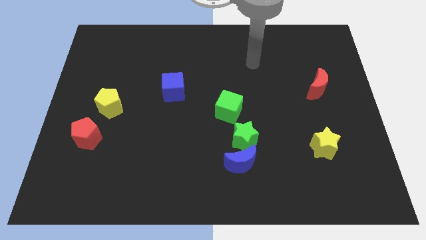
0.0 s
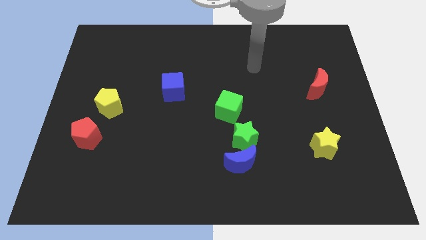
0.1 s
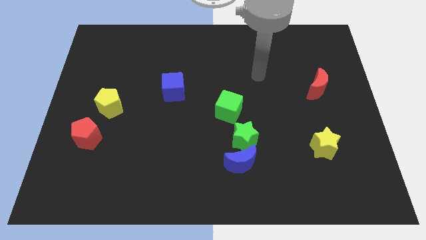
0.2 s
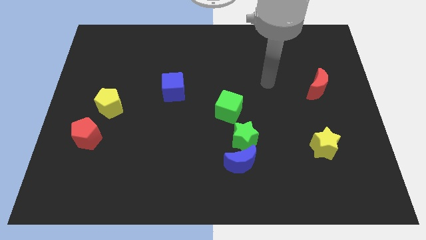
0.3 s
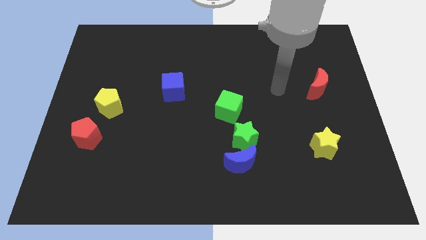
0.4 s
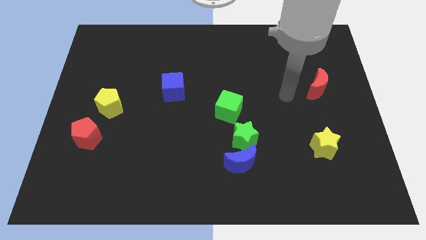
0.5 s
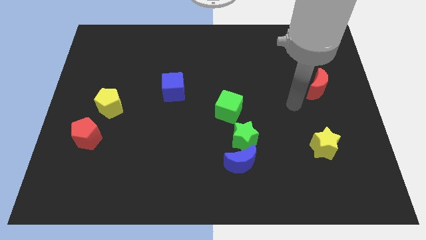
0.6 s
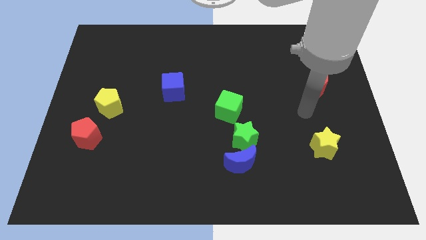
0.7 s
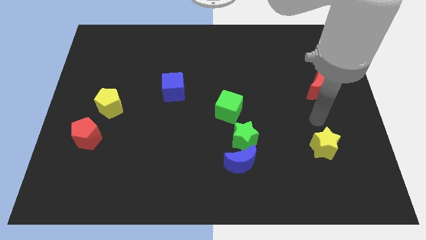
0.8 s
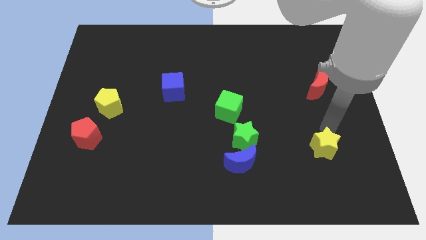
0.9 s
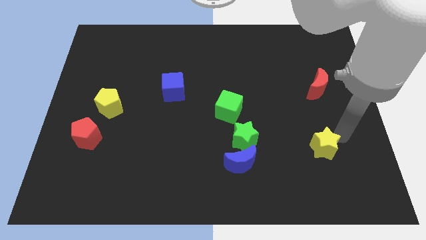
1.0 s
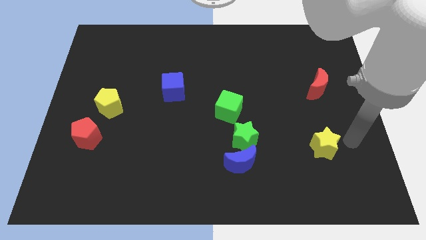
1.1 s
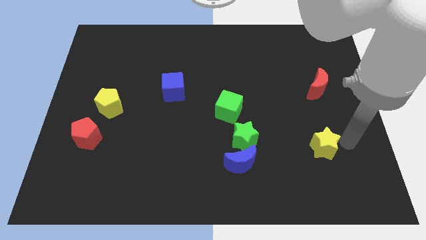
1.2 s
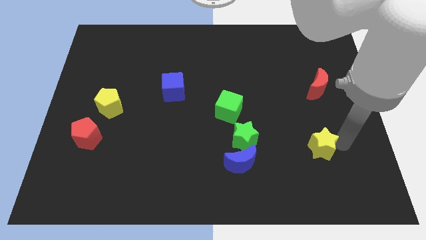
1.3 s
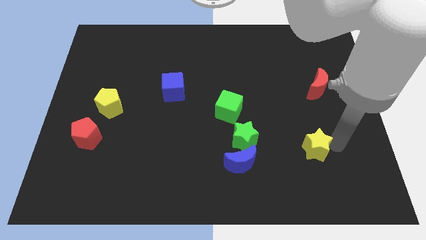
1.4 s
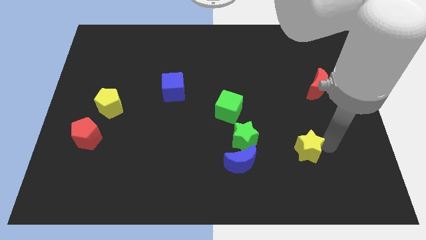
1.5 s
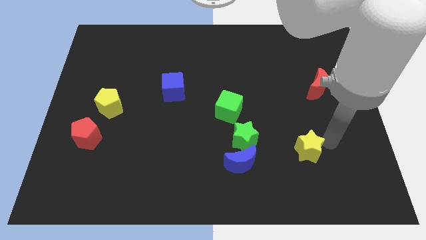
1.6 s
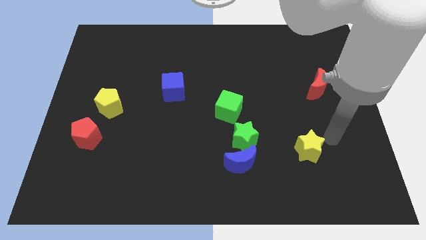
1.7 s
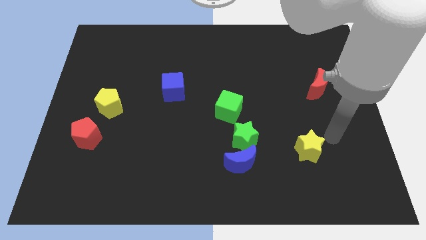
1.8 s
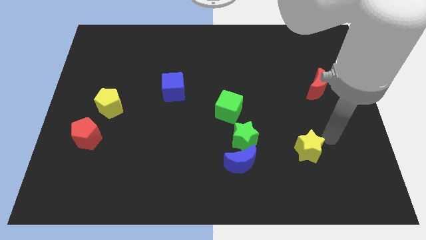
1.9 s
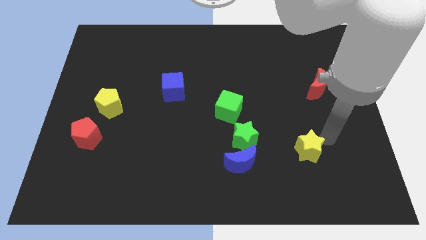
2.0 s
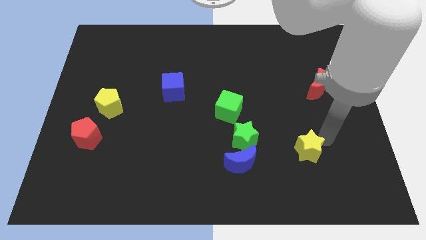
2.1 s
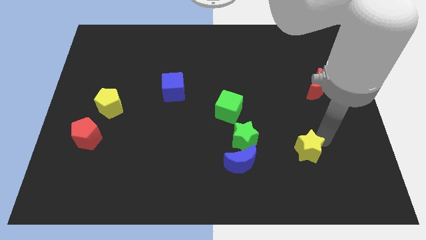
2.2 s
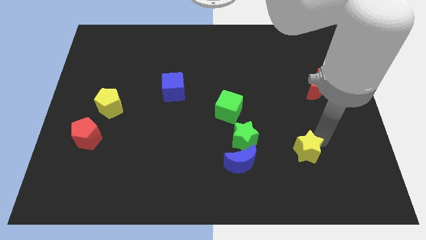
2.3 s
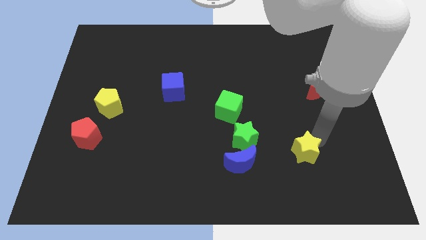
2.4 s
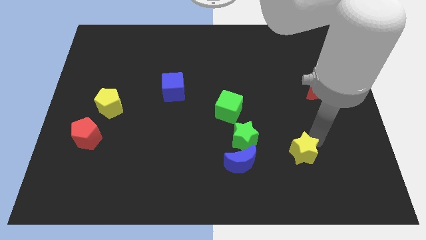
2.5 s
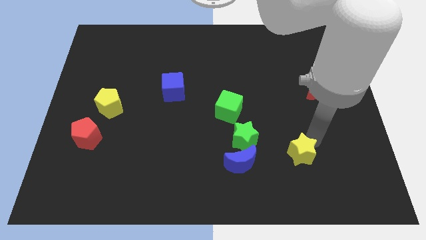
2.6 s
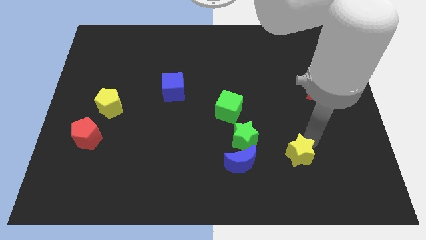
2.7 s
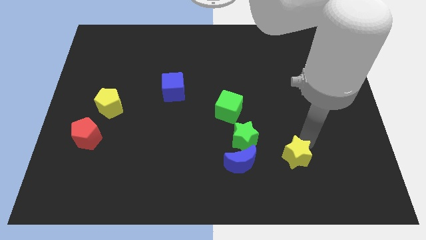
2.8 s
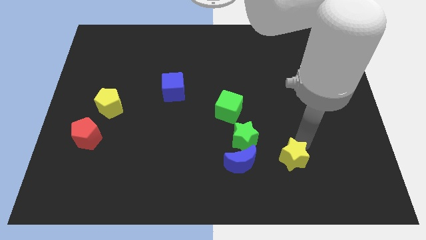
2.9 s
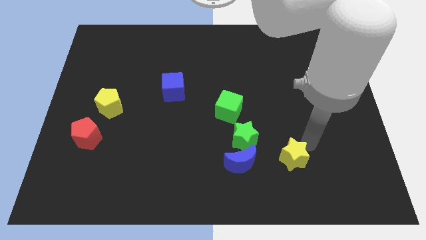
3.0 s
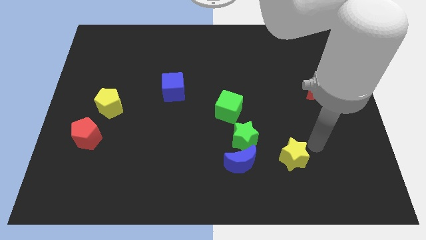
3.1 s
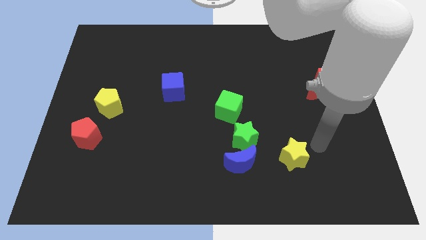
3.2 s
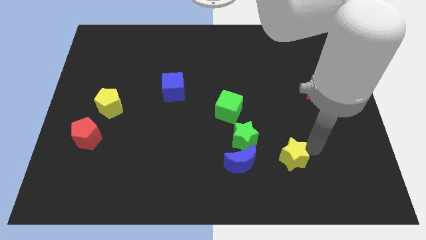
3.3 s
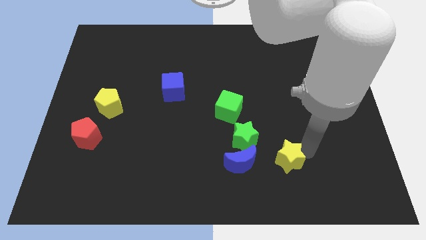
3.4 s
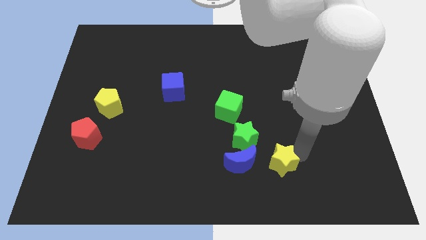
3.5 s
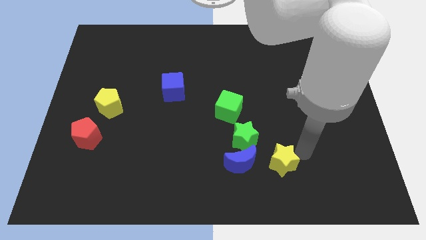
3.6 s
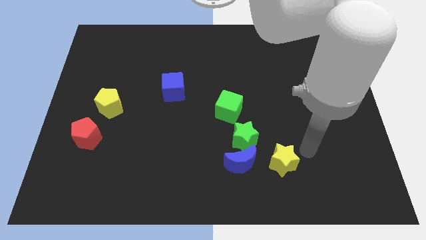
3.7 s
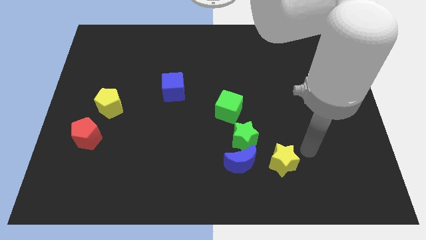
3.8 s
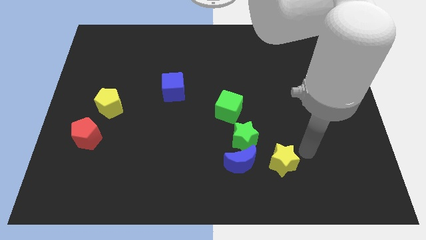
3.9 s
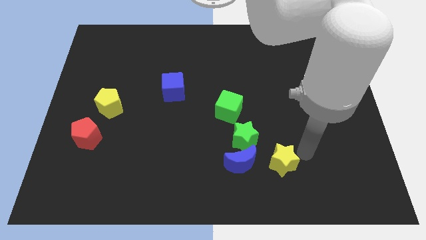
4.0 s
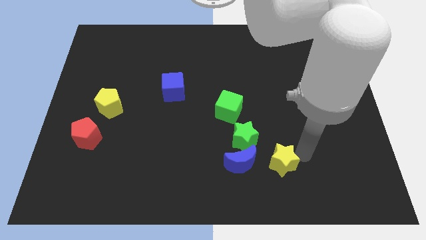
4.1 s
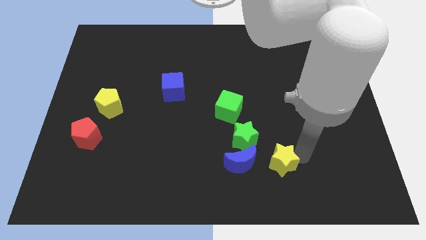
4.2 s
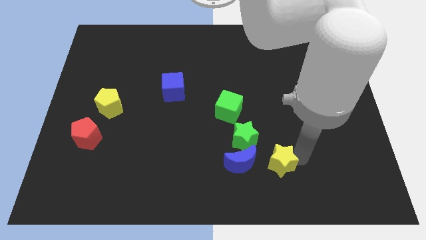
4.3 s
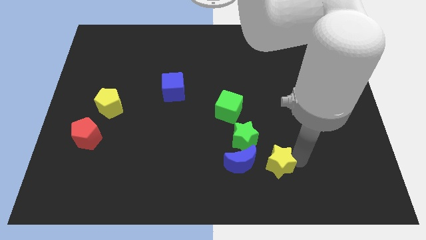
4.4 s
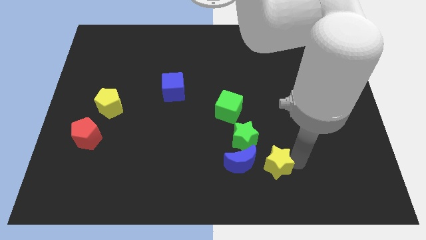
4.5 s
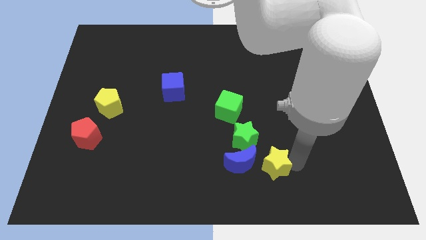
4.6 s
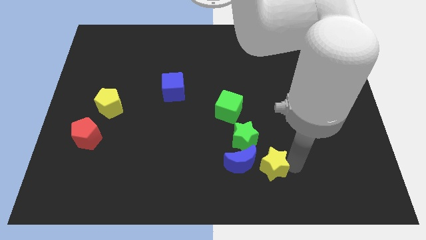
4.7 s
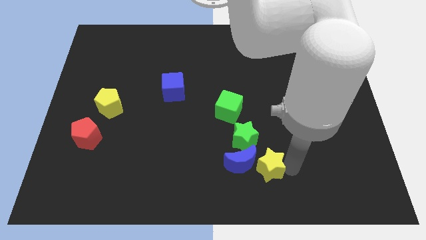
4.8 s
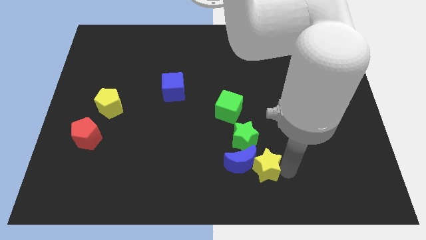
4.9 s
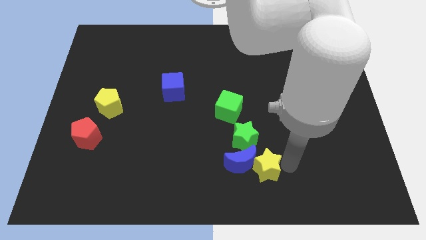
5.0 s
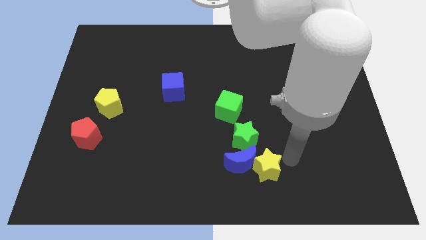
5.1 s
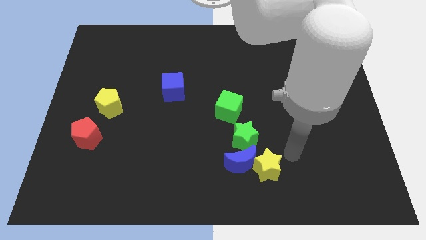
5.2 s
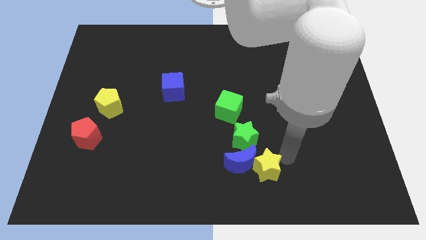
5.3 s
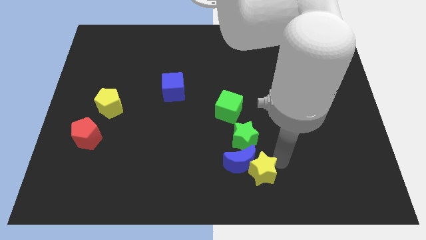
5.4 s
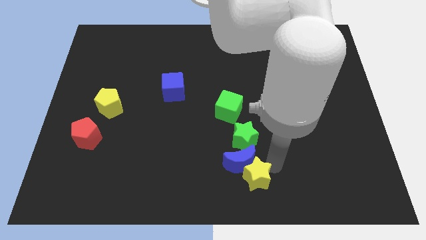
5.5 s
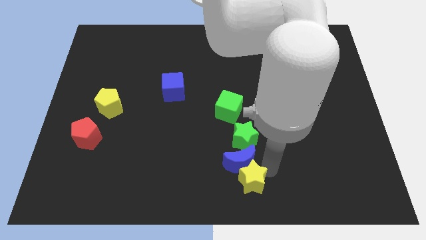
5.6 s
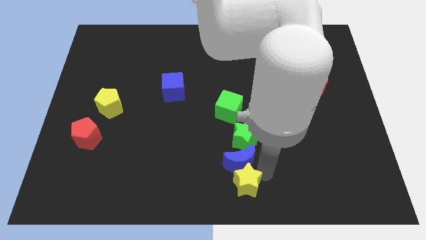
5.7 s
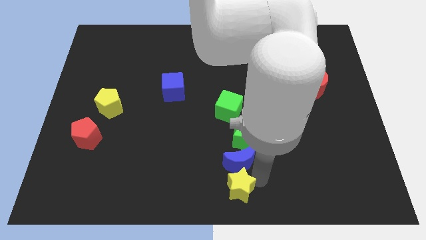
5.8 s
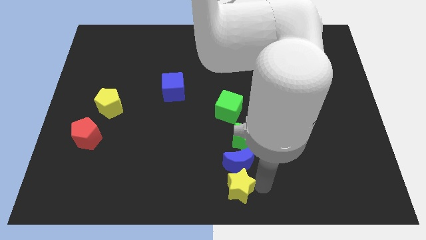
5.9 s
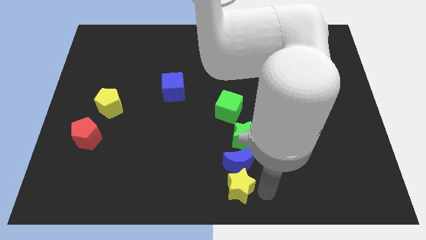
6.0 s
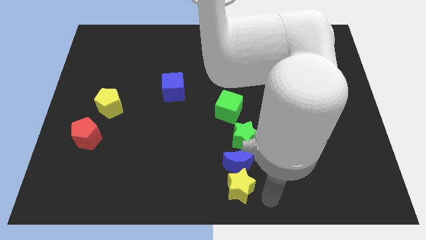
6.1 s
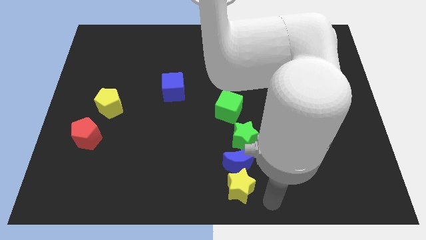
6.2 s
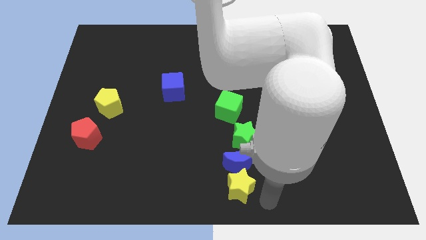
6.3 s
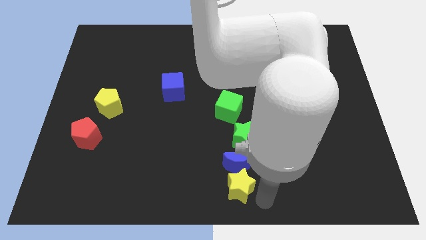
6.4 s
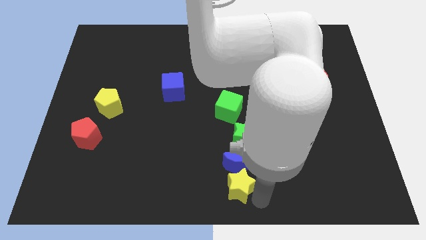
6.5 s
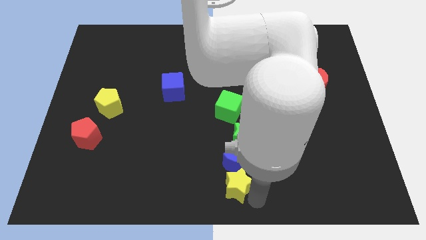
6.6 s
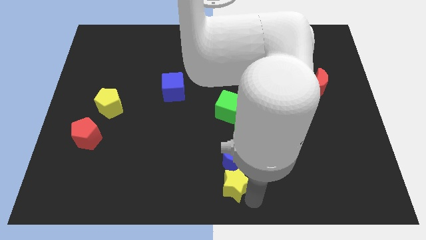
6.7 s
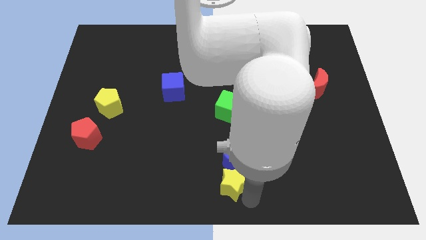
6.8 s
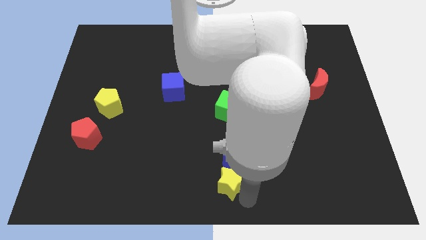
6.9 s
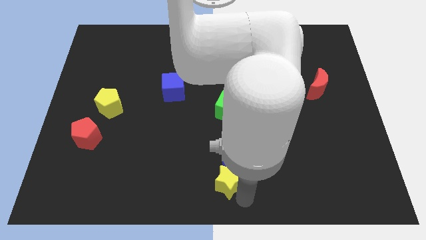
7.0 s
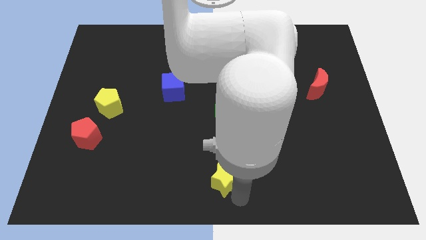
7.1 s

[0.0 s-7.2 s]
push the yellow star left of the blue moon

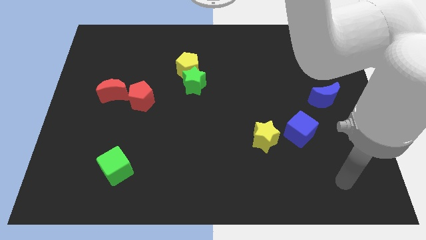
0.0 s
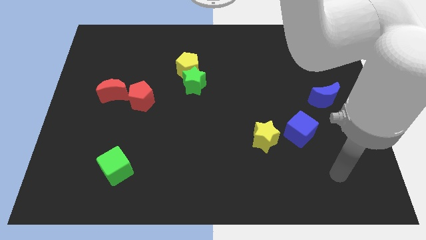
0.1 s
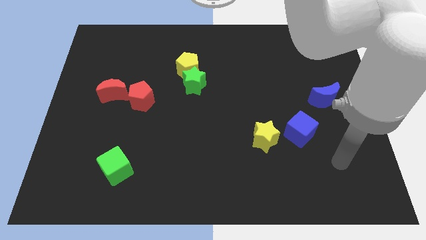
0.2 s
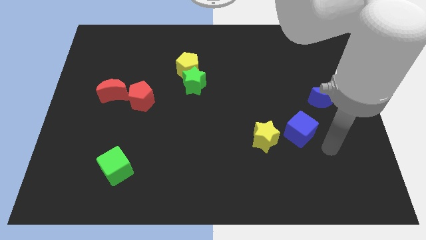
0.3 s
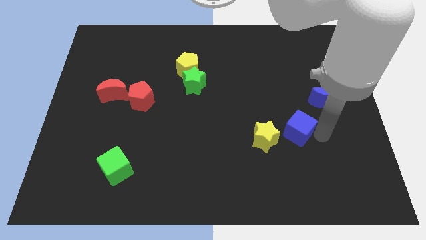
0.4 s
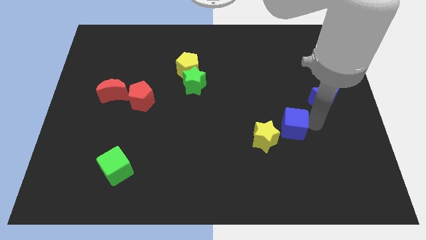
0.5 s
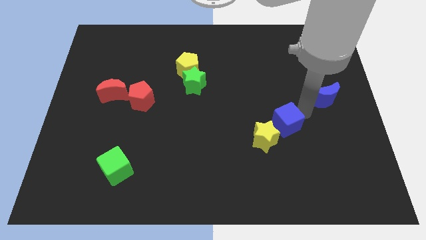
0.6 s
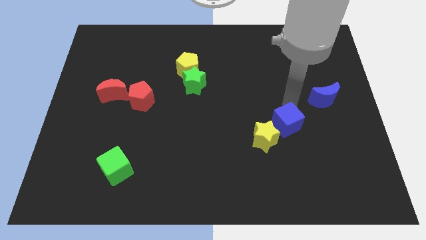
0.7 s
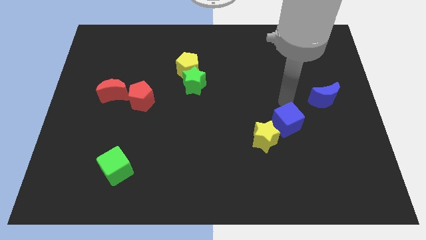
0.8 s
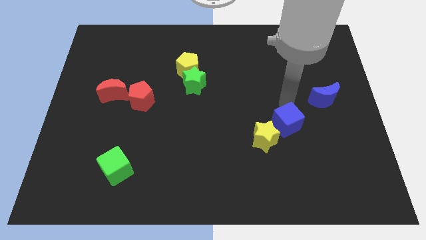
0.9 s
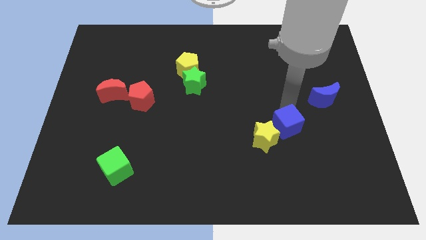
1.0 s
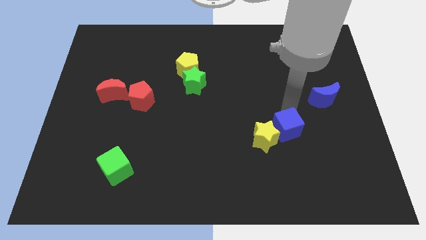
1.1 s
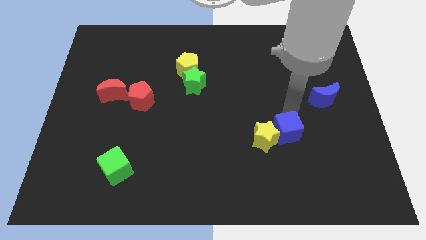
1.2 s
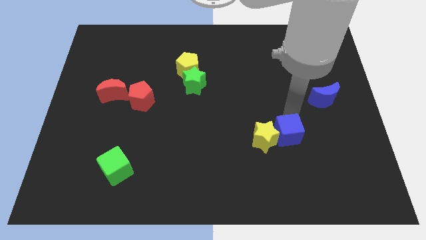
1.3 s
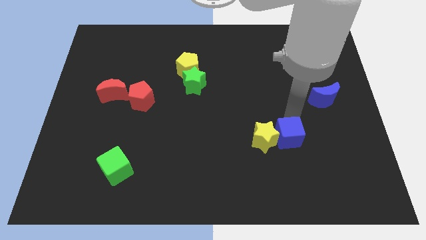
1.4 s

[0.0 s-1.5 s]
slide the blue cube to the bottom right of the yellow star
